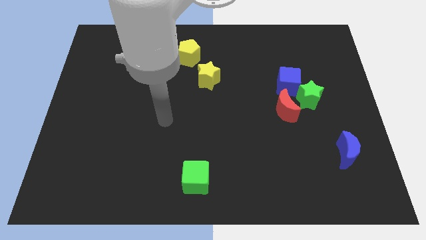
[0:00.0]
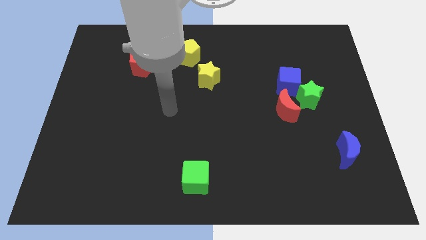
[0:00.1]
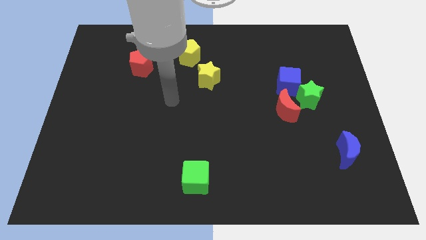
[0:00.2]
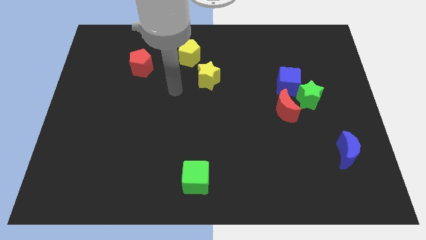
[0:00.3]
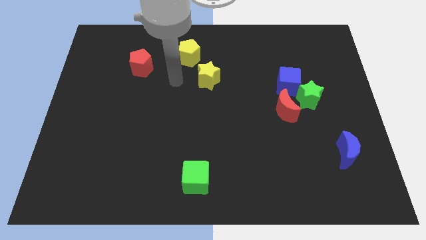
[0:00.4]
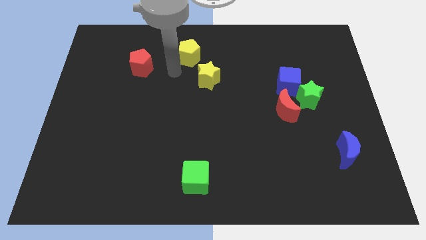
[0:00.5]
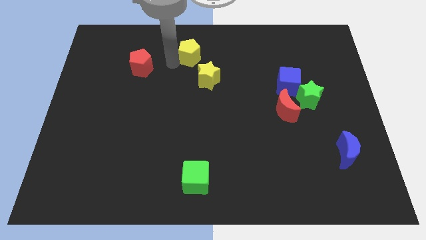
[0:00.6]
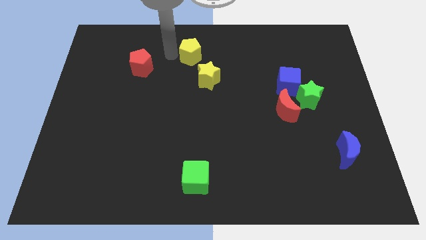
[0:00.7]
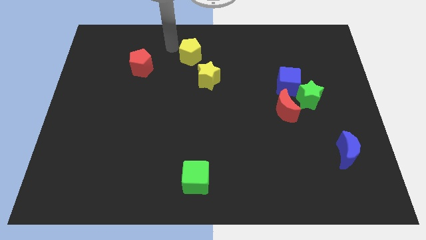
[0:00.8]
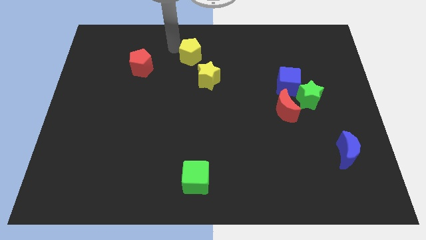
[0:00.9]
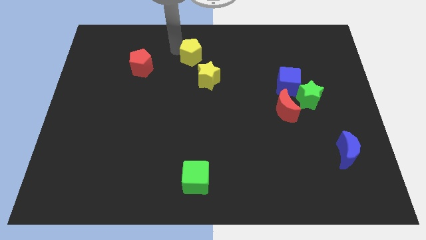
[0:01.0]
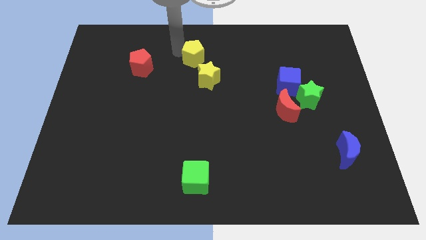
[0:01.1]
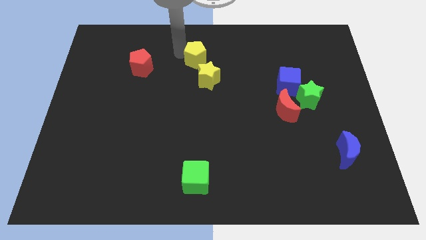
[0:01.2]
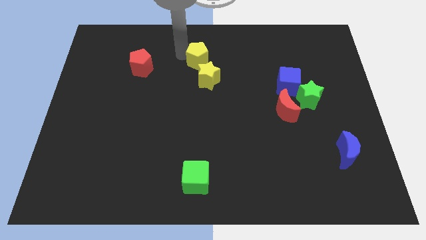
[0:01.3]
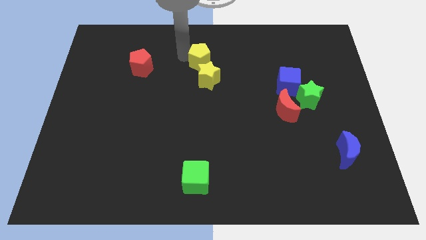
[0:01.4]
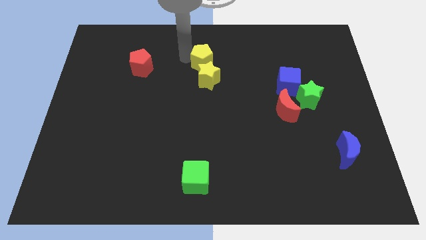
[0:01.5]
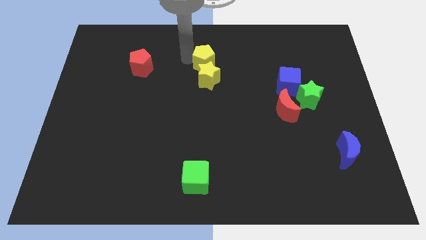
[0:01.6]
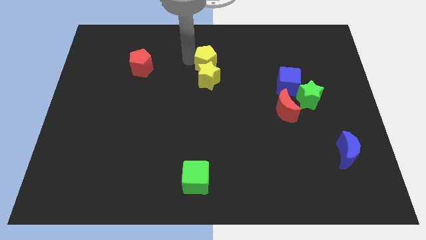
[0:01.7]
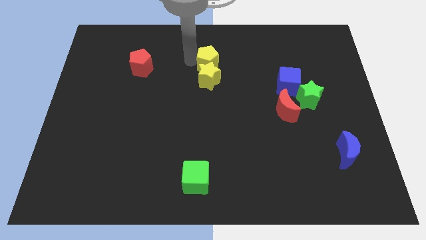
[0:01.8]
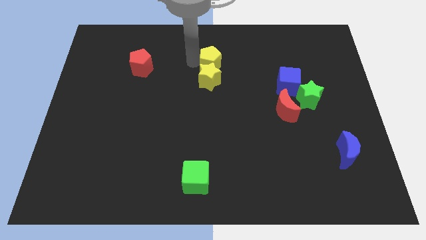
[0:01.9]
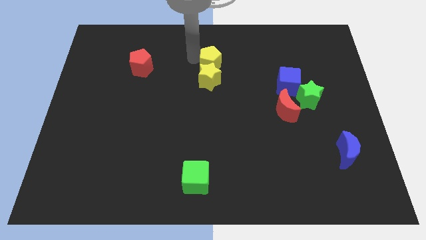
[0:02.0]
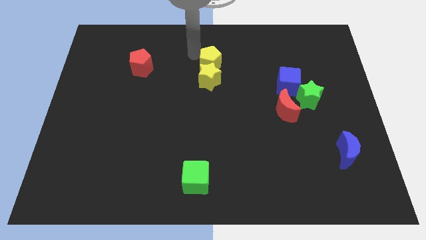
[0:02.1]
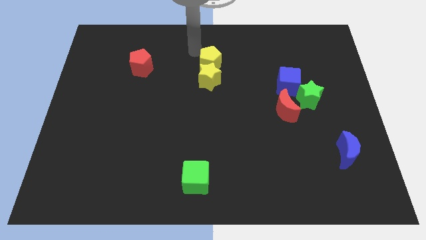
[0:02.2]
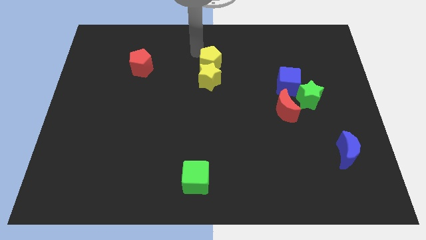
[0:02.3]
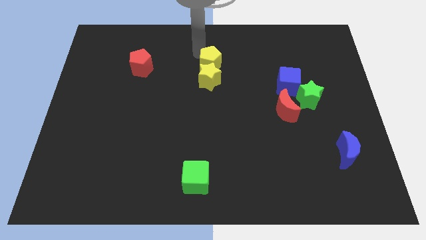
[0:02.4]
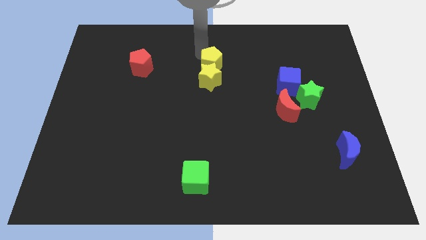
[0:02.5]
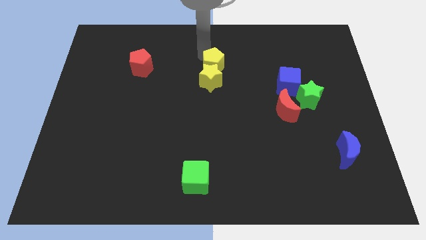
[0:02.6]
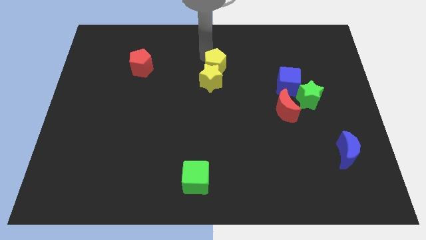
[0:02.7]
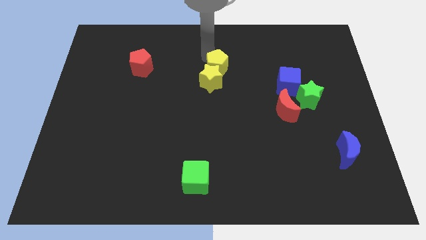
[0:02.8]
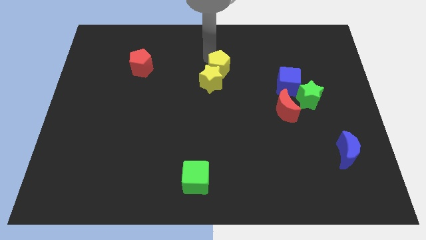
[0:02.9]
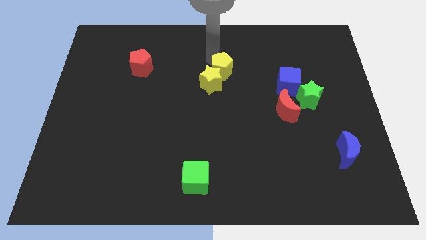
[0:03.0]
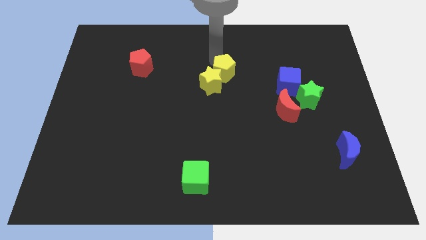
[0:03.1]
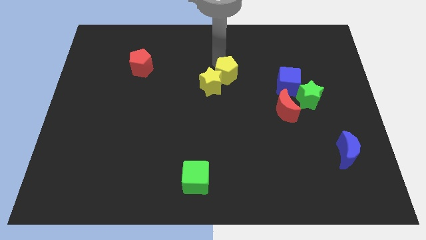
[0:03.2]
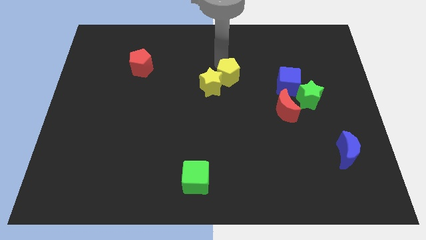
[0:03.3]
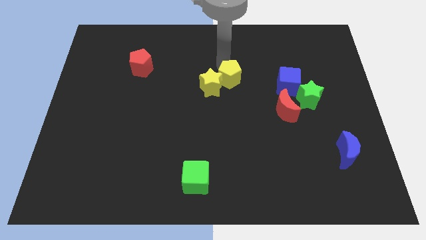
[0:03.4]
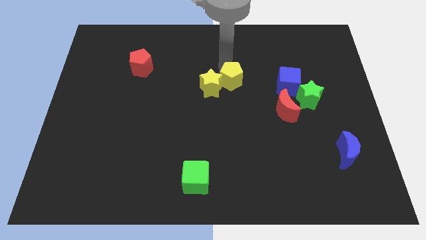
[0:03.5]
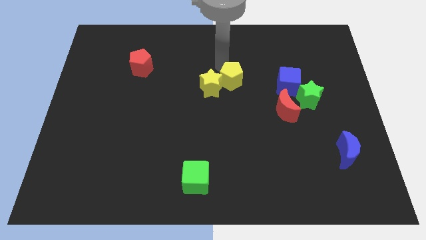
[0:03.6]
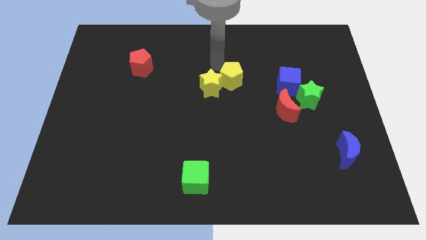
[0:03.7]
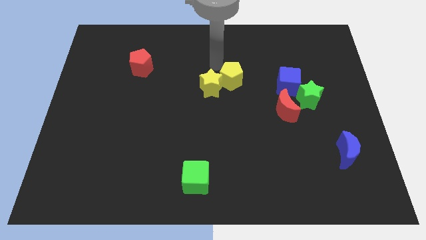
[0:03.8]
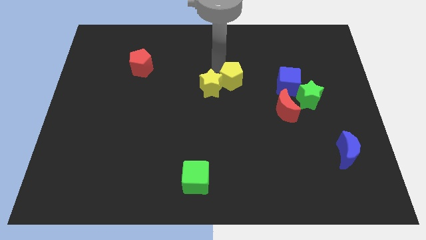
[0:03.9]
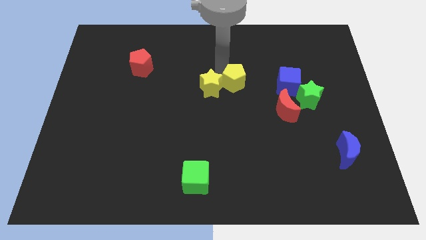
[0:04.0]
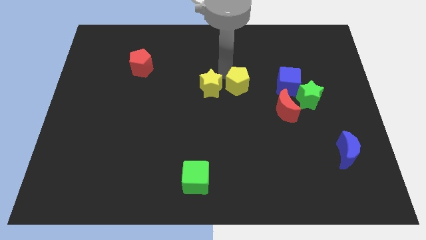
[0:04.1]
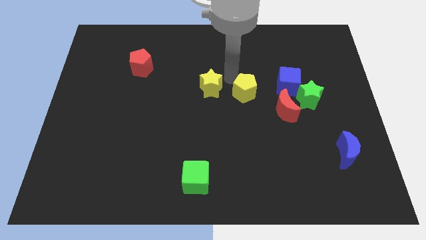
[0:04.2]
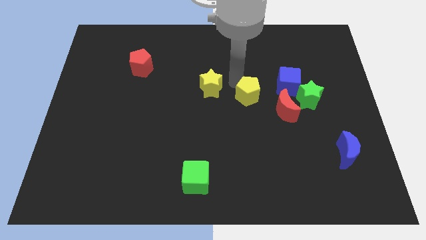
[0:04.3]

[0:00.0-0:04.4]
push the yellow pentagon diagonally down and to the right

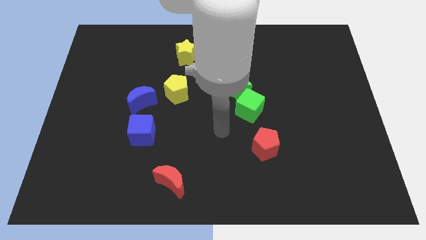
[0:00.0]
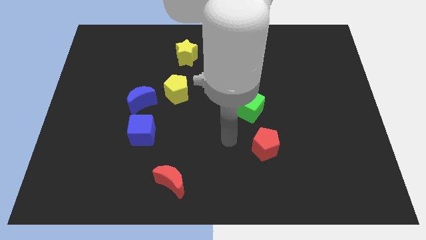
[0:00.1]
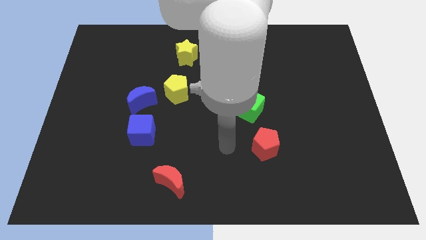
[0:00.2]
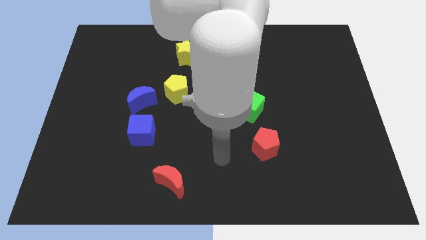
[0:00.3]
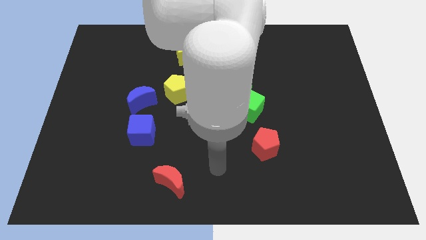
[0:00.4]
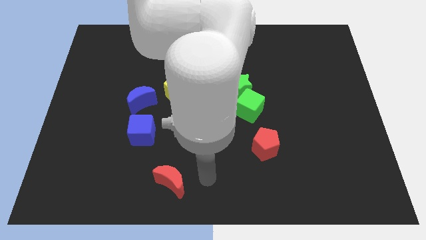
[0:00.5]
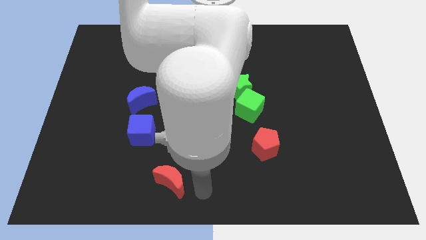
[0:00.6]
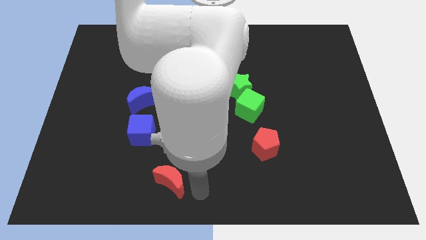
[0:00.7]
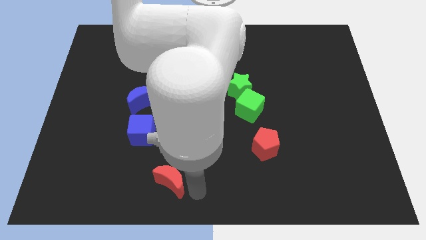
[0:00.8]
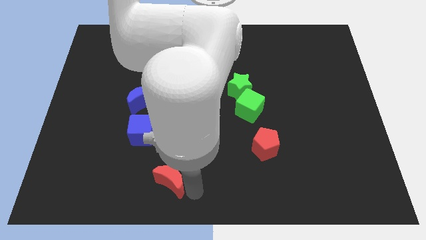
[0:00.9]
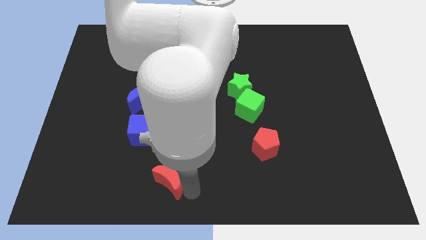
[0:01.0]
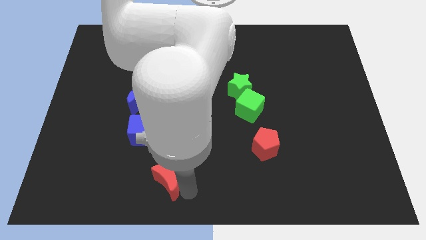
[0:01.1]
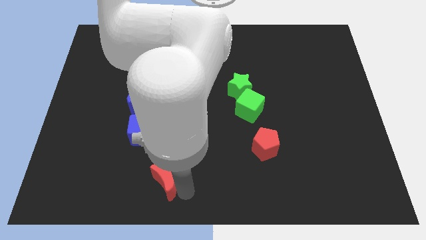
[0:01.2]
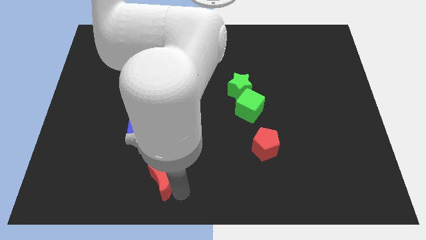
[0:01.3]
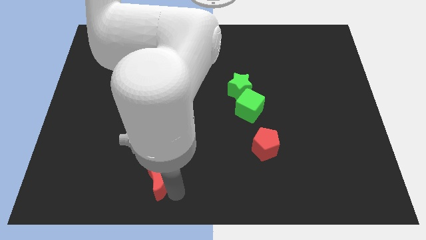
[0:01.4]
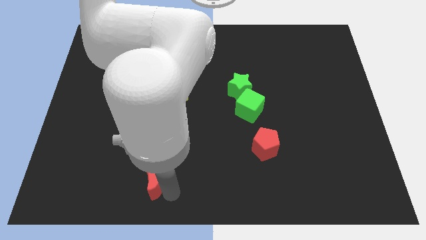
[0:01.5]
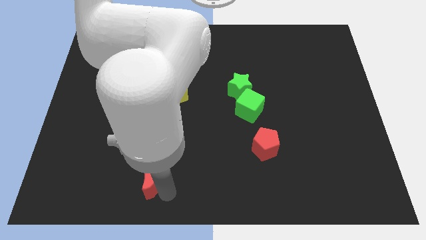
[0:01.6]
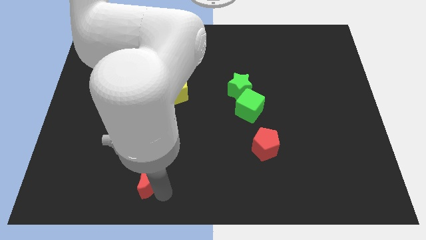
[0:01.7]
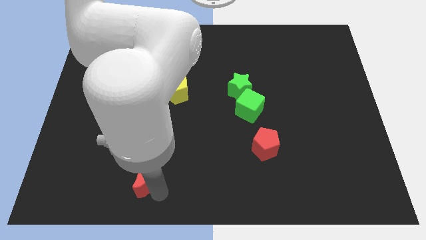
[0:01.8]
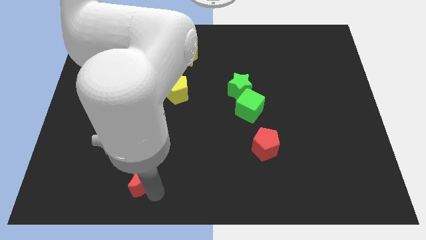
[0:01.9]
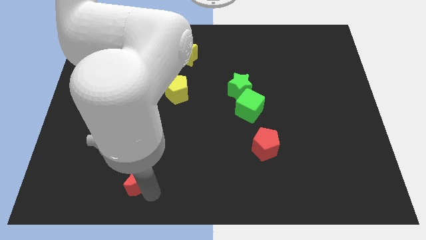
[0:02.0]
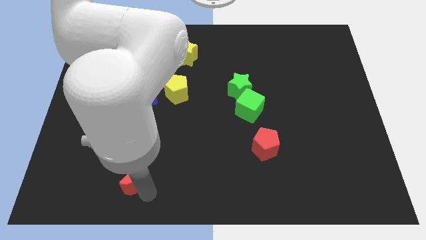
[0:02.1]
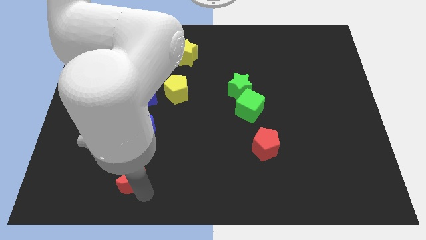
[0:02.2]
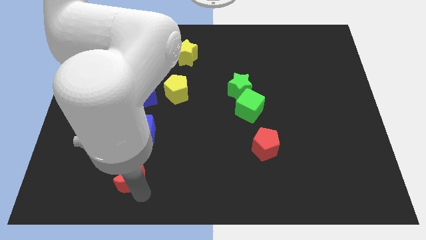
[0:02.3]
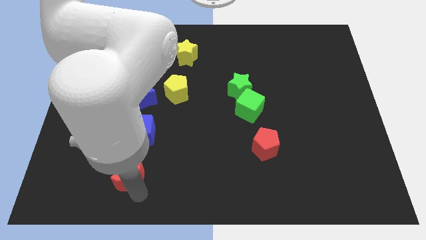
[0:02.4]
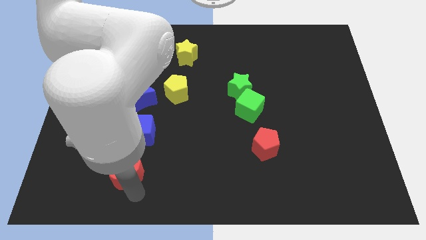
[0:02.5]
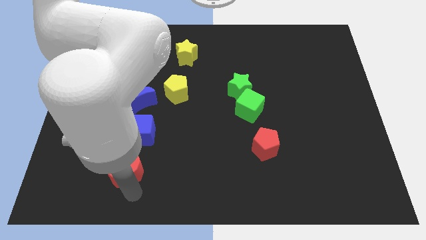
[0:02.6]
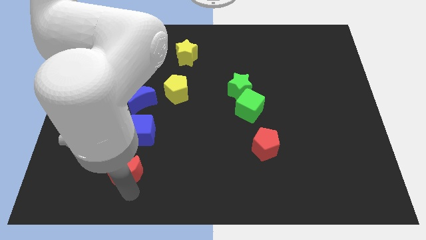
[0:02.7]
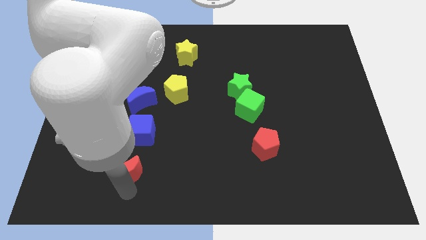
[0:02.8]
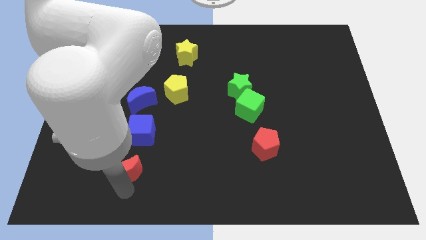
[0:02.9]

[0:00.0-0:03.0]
move the red moon a little up and then left

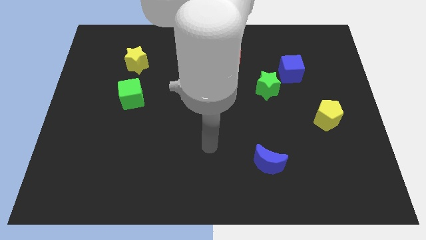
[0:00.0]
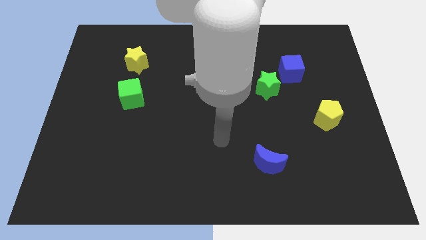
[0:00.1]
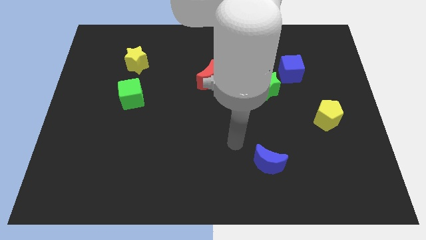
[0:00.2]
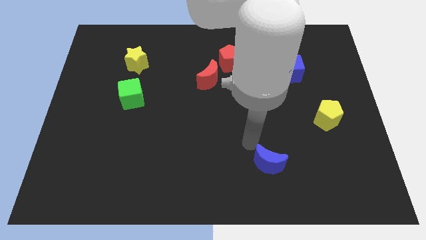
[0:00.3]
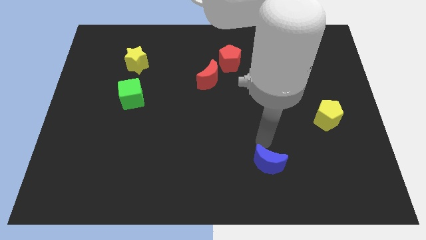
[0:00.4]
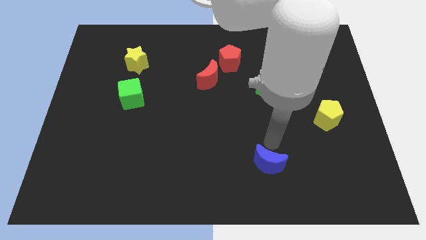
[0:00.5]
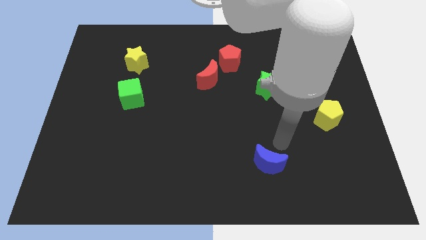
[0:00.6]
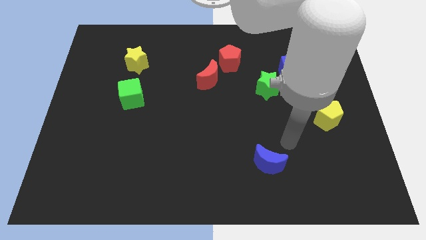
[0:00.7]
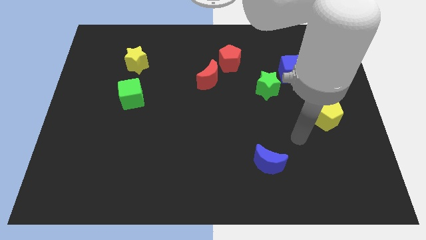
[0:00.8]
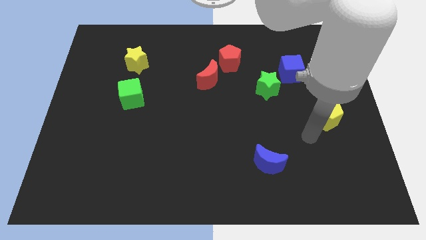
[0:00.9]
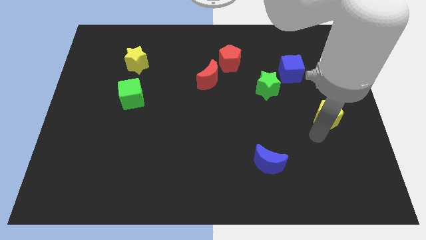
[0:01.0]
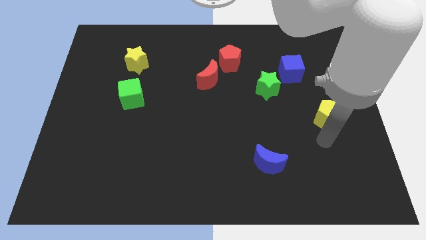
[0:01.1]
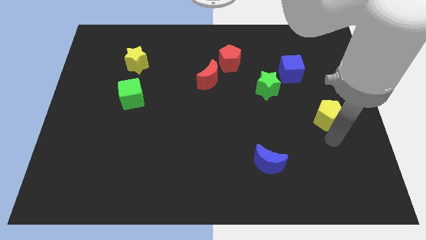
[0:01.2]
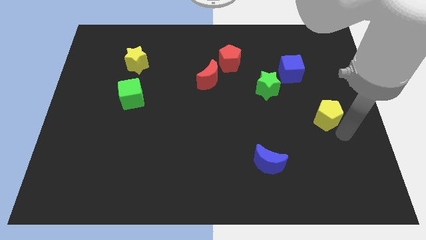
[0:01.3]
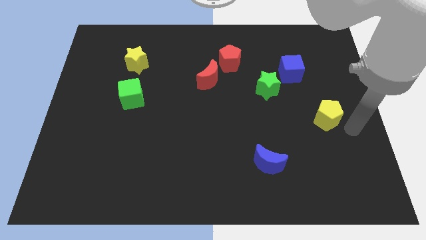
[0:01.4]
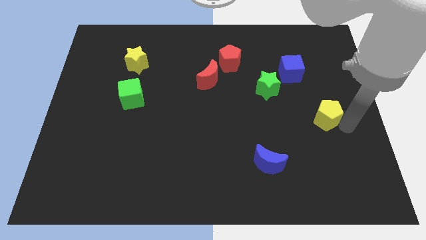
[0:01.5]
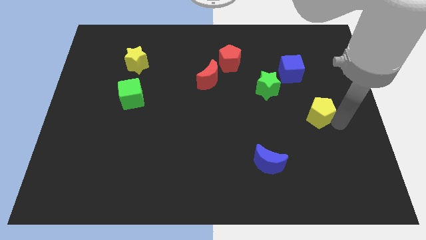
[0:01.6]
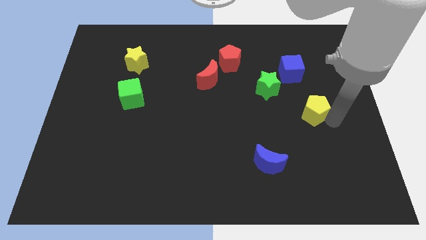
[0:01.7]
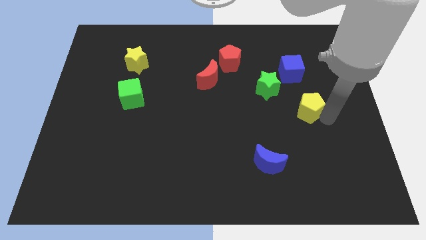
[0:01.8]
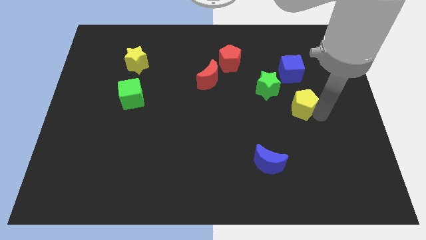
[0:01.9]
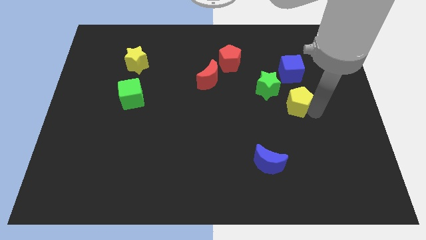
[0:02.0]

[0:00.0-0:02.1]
push the yellow pentagon up and then to the left a little
